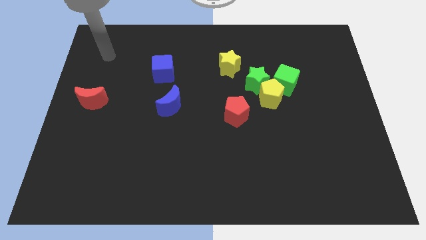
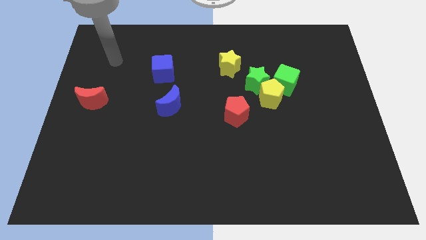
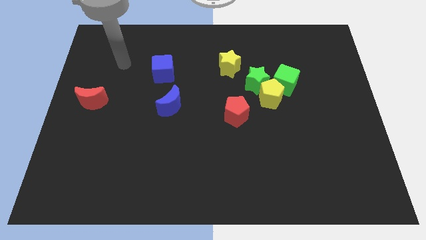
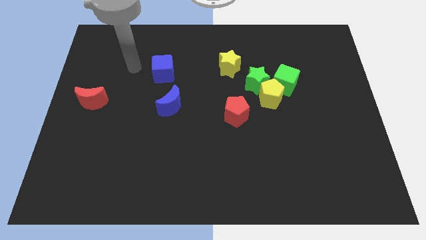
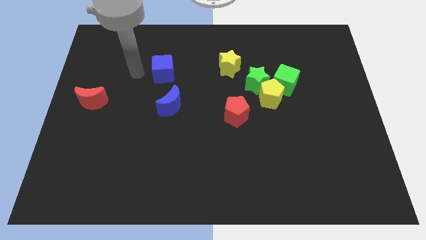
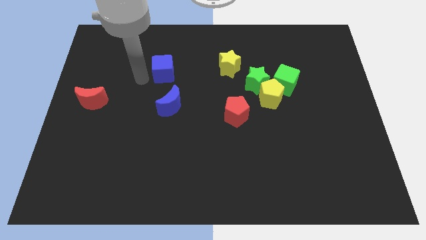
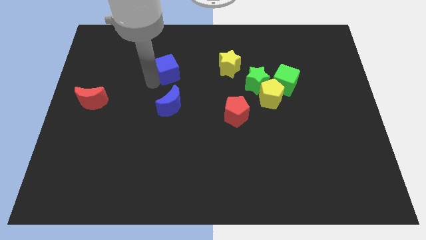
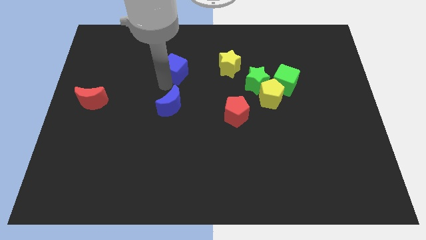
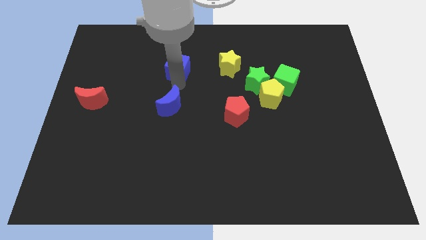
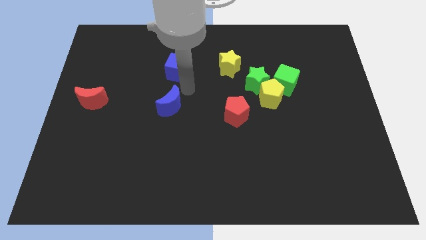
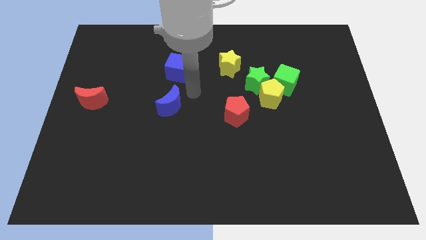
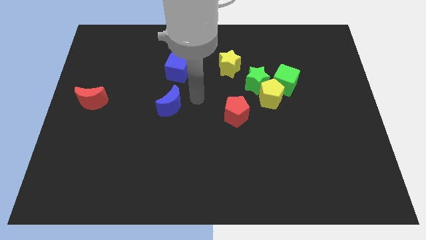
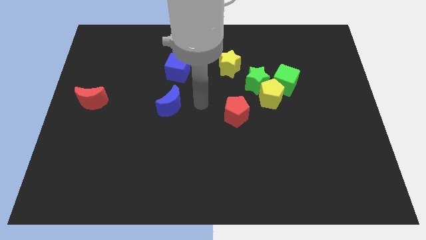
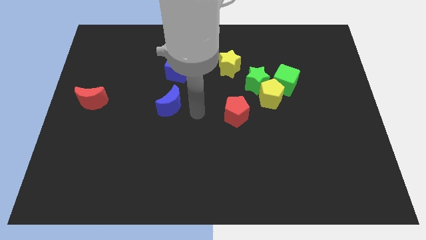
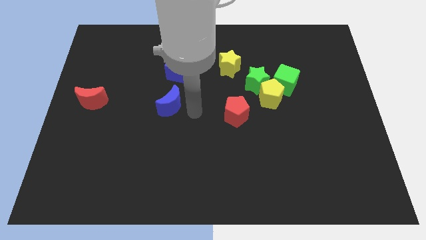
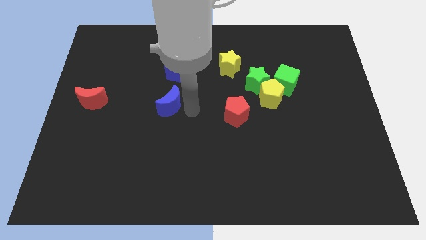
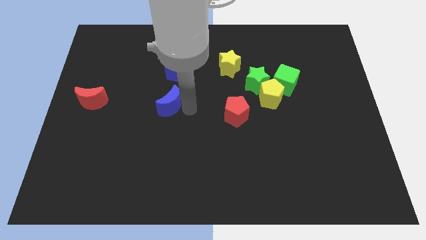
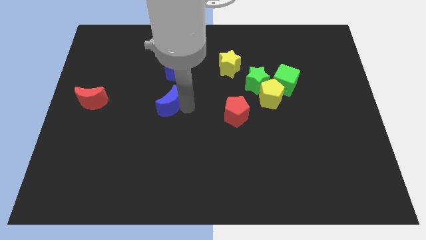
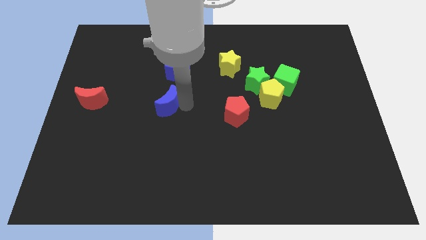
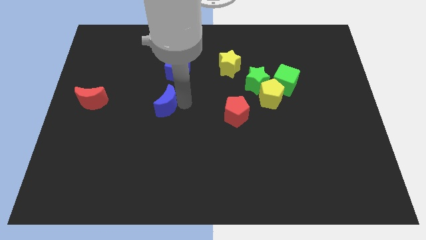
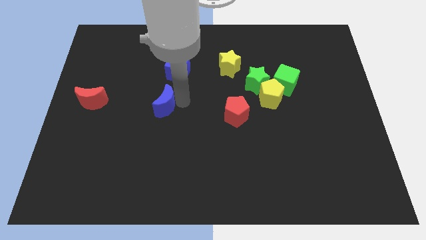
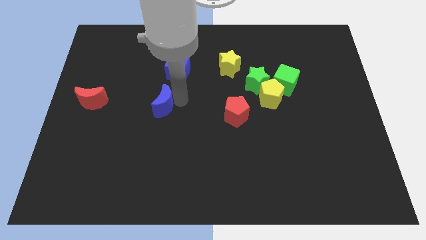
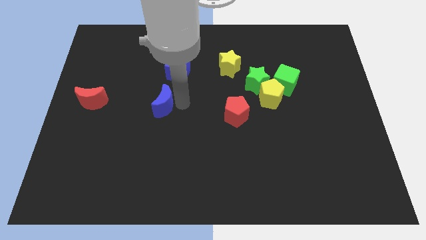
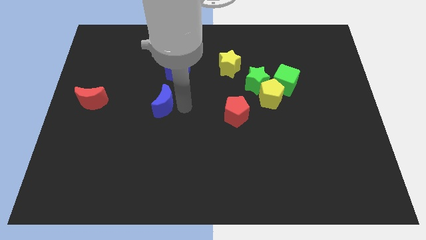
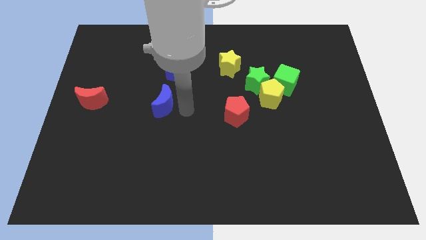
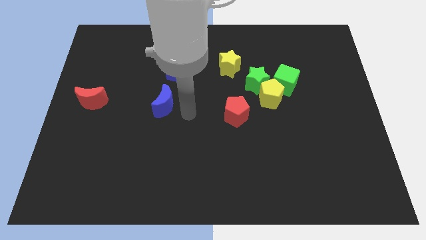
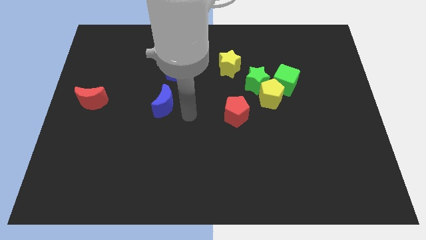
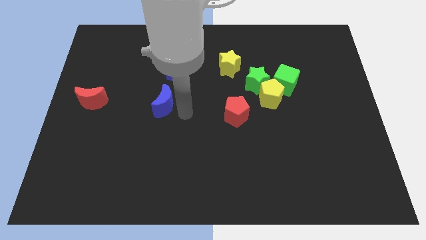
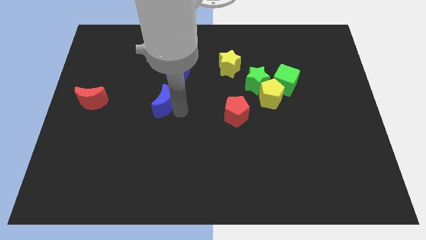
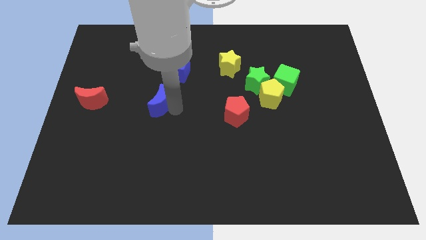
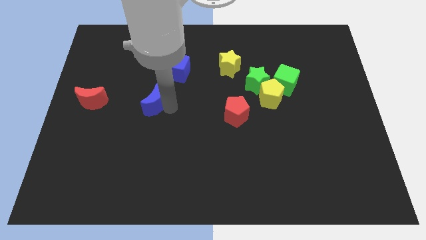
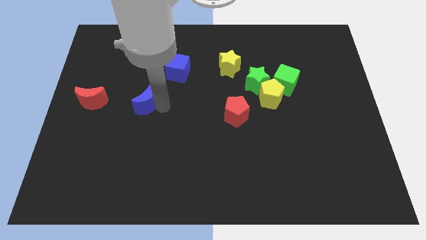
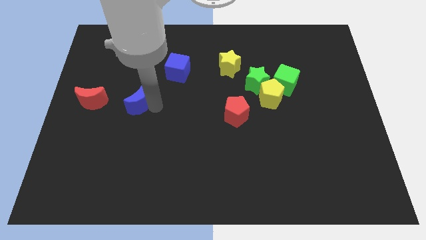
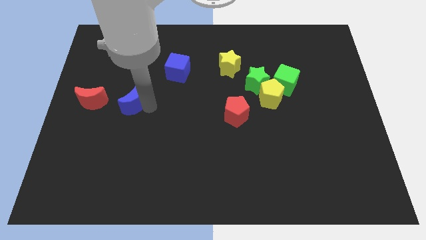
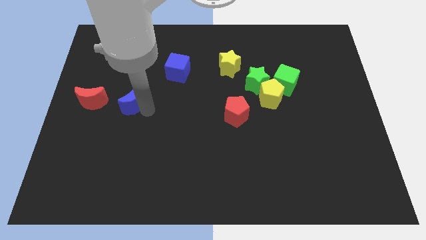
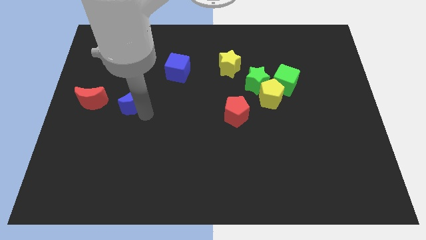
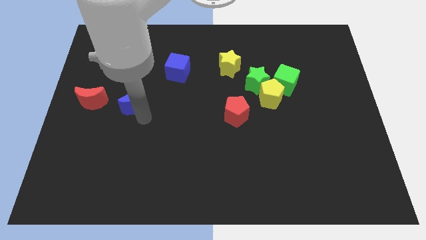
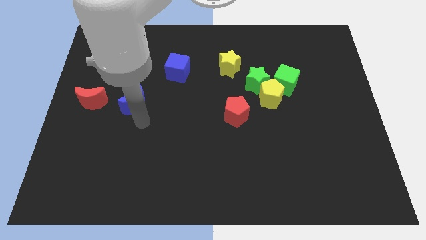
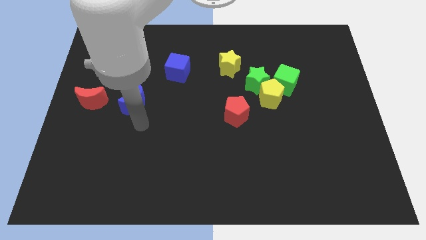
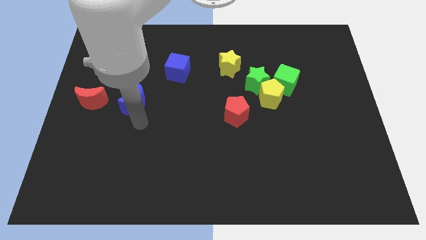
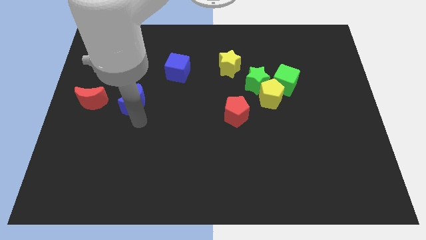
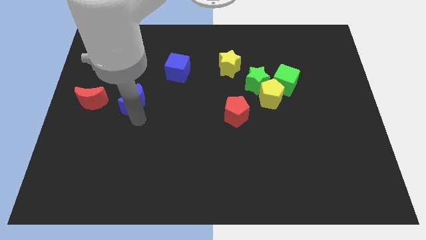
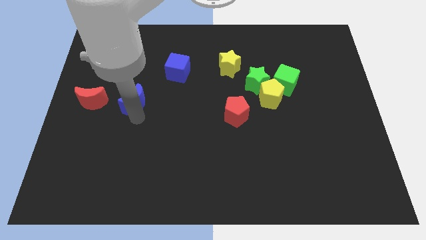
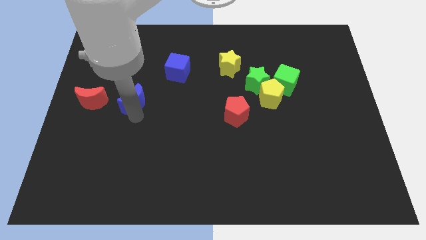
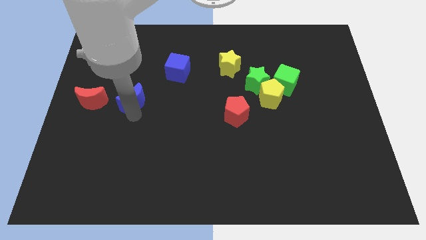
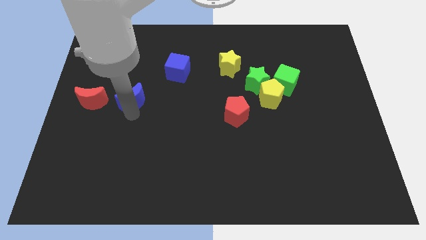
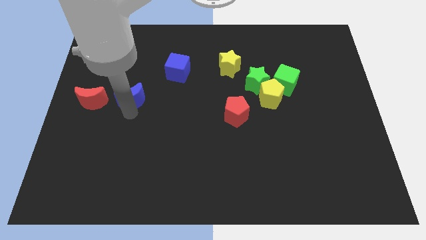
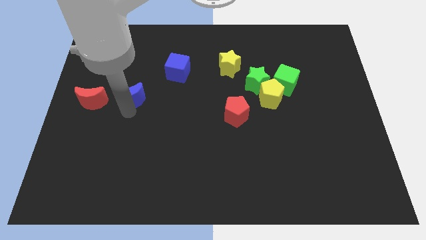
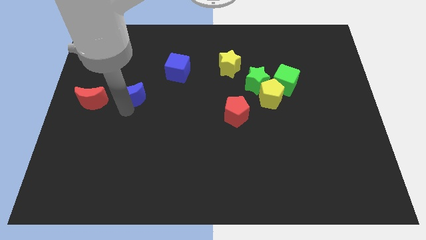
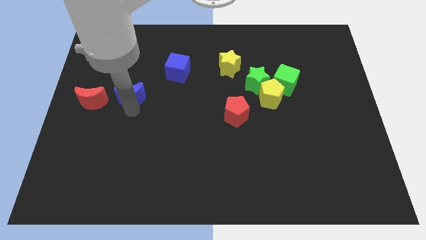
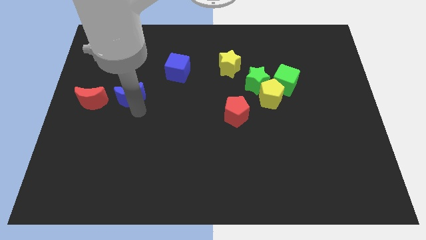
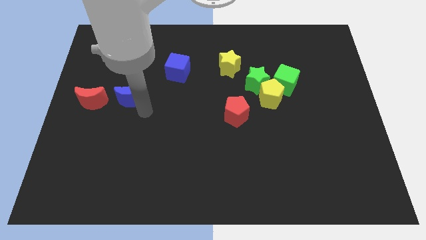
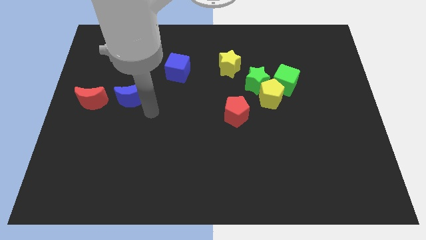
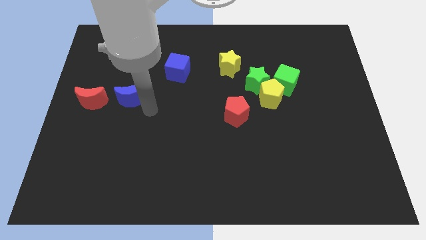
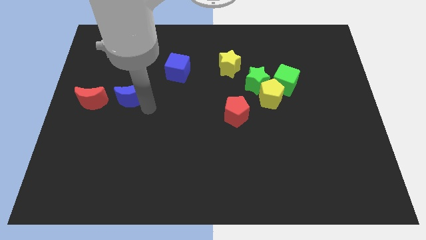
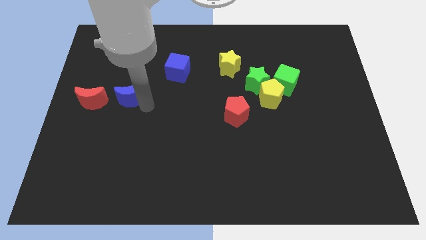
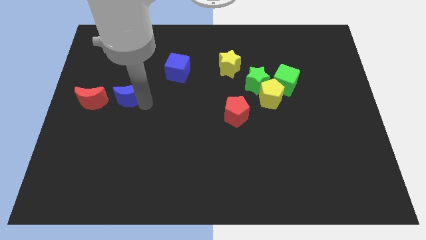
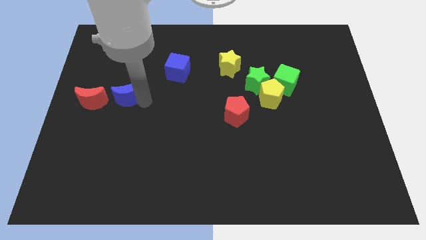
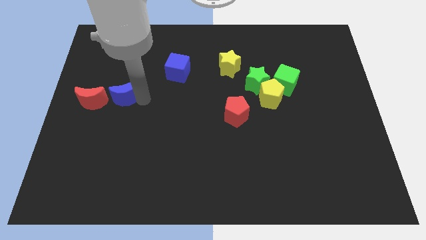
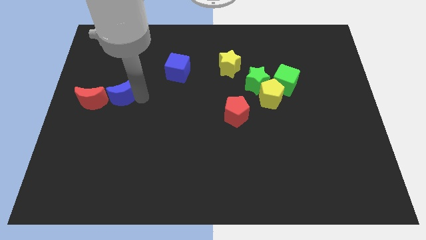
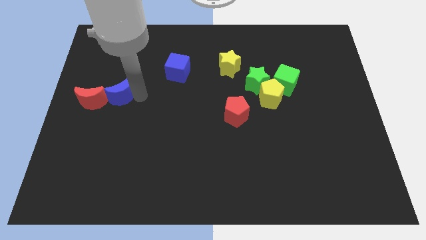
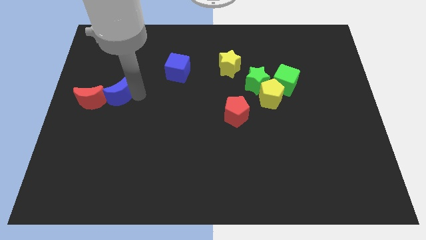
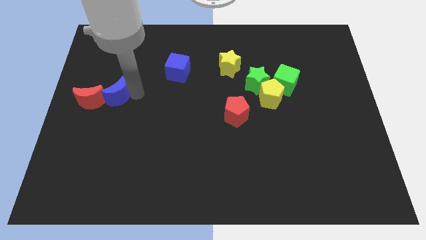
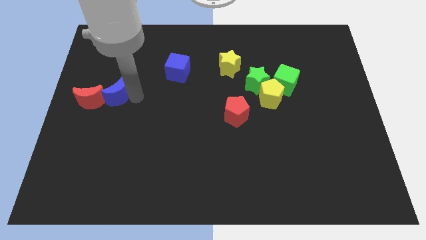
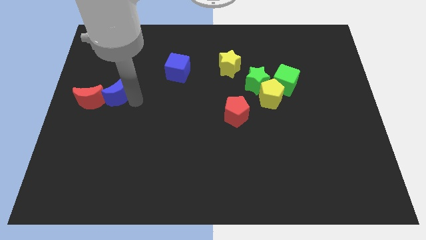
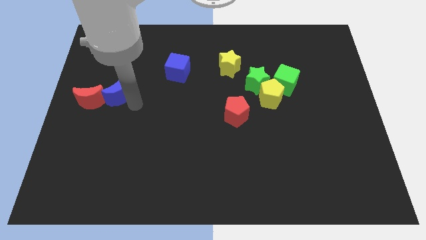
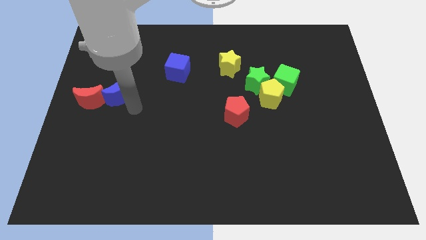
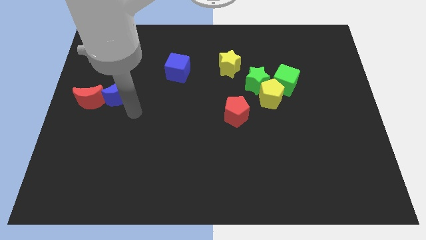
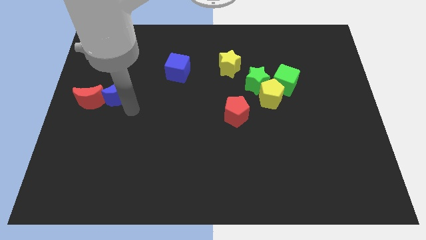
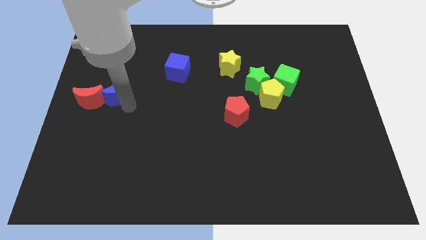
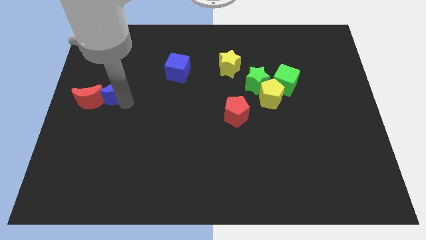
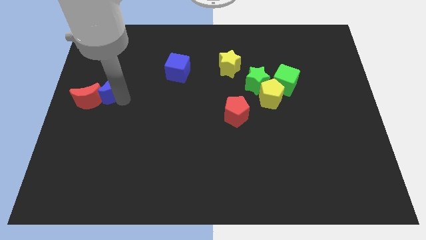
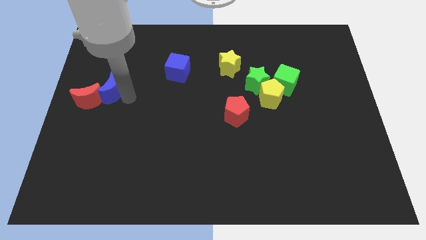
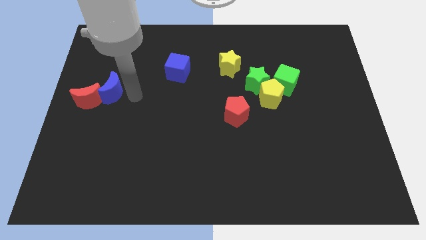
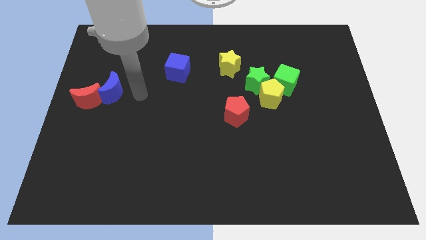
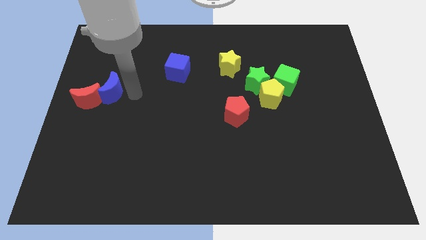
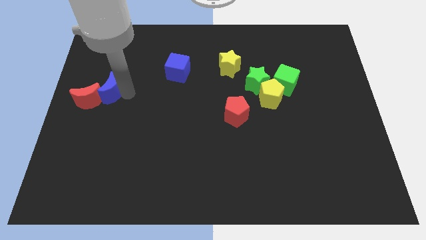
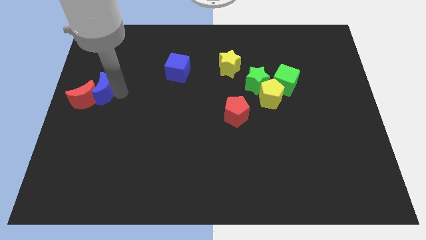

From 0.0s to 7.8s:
slide the blue moon to the left side of the board
